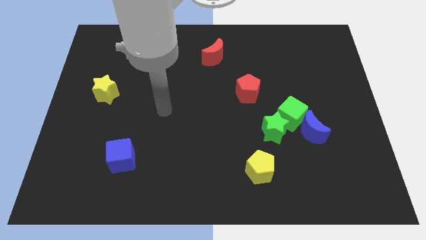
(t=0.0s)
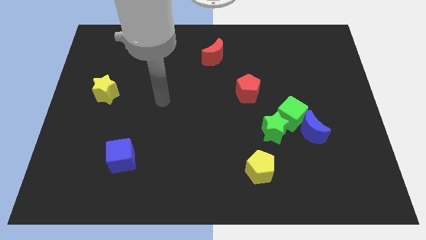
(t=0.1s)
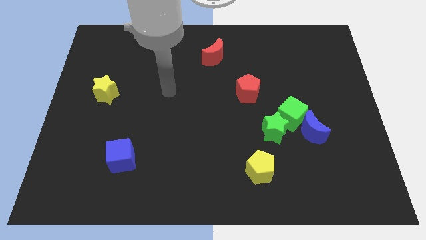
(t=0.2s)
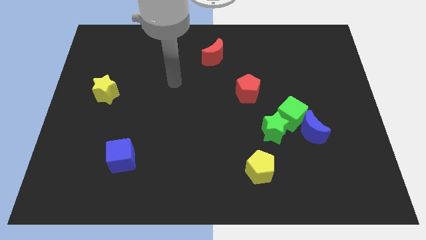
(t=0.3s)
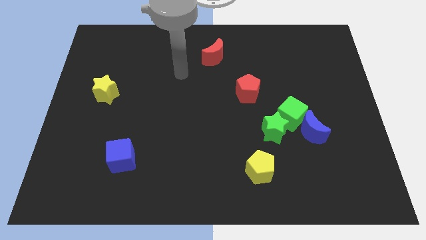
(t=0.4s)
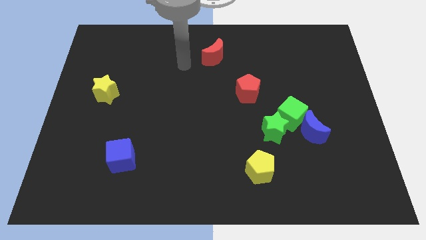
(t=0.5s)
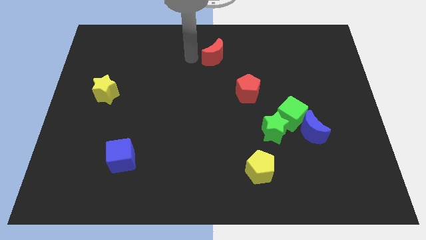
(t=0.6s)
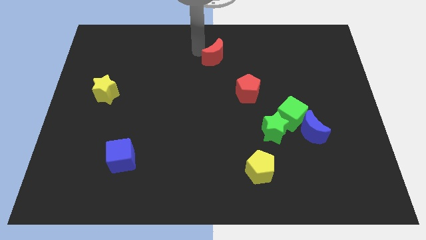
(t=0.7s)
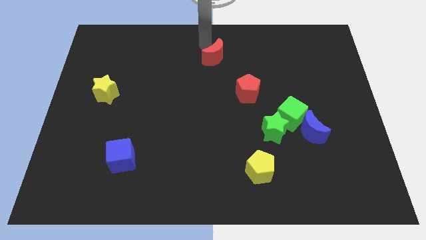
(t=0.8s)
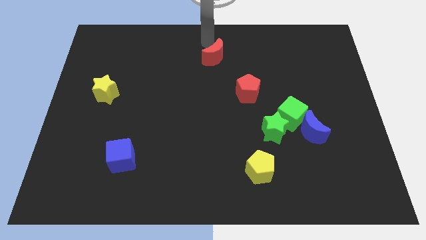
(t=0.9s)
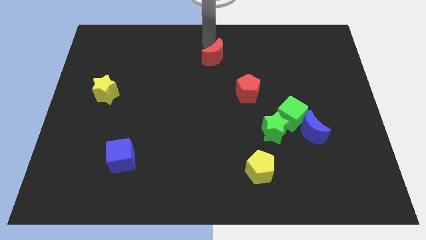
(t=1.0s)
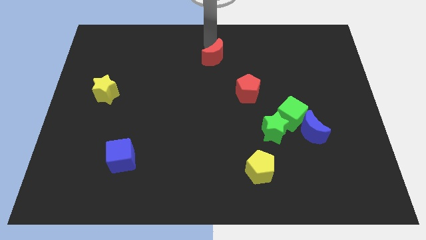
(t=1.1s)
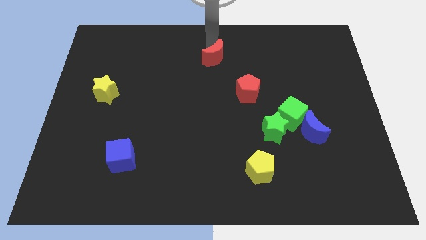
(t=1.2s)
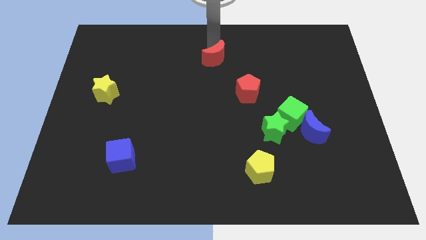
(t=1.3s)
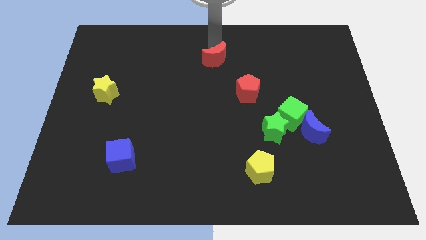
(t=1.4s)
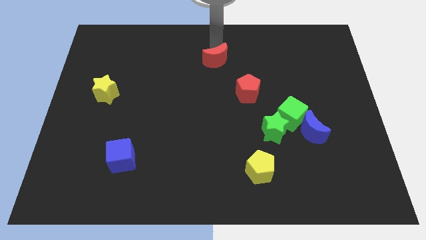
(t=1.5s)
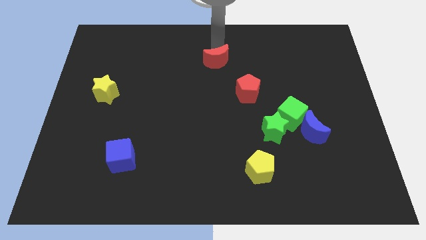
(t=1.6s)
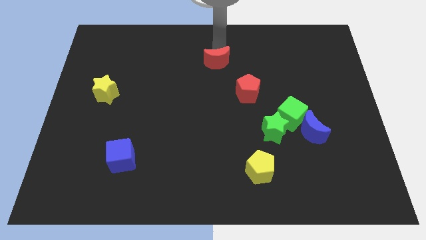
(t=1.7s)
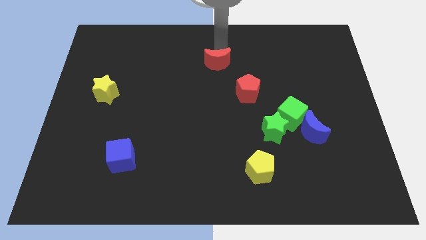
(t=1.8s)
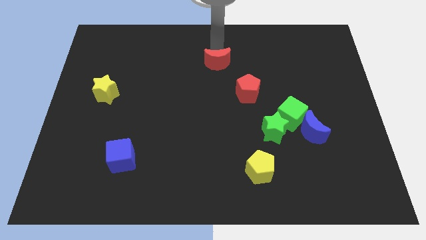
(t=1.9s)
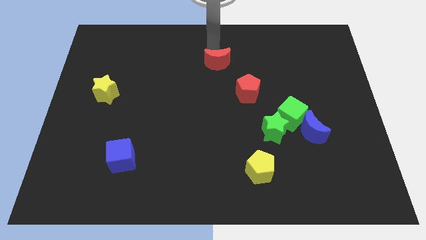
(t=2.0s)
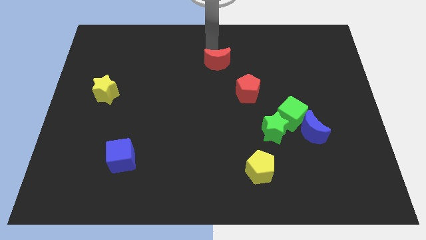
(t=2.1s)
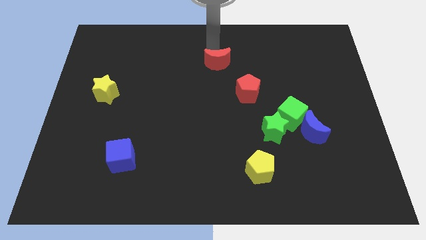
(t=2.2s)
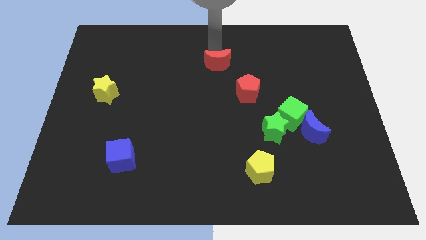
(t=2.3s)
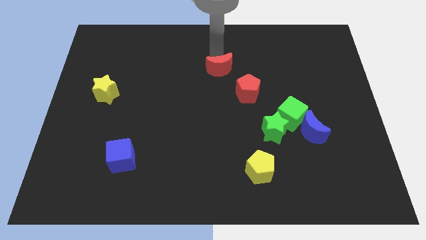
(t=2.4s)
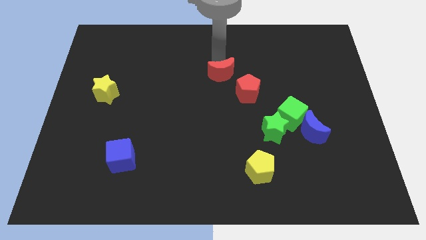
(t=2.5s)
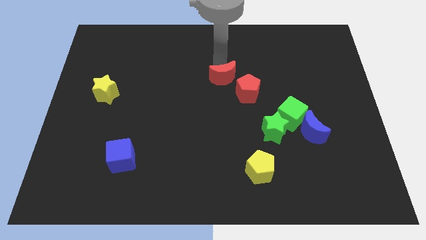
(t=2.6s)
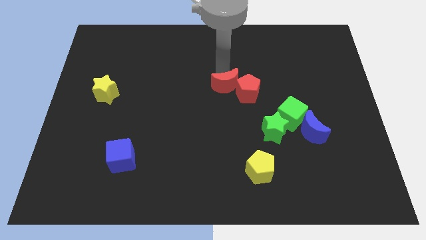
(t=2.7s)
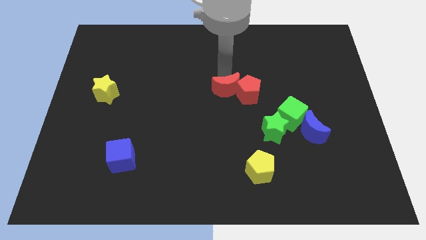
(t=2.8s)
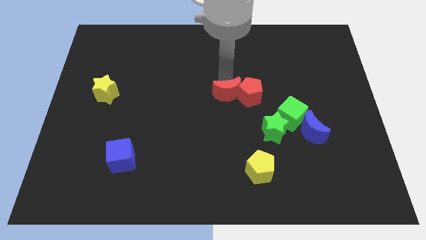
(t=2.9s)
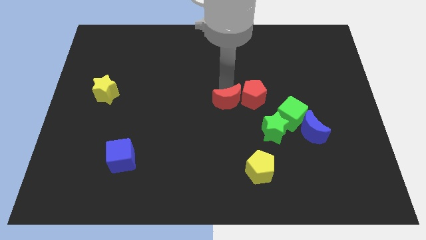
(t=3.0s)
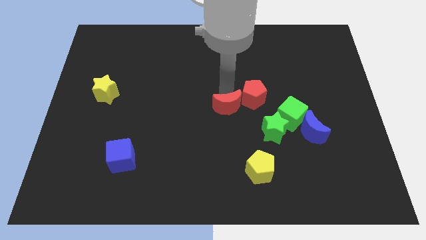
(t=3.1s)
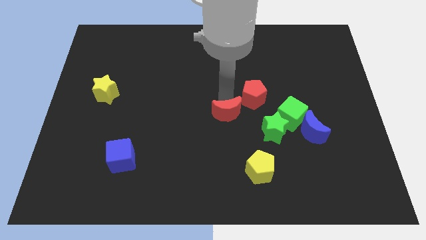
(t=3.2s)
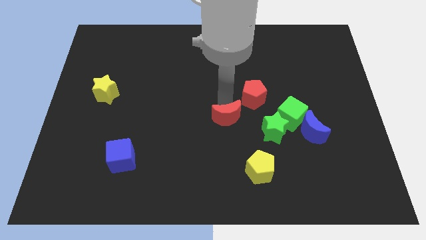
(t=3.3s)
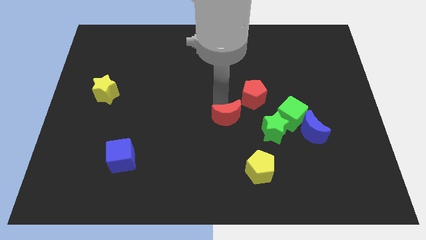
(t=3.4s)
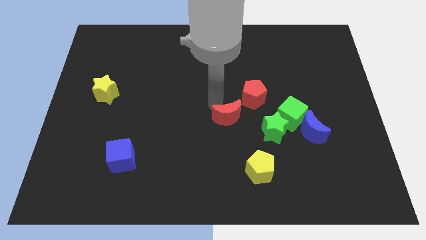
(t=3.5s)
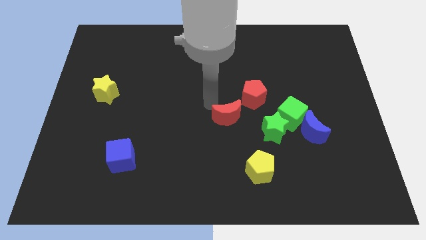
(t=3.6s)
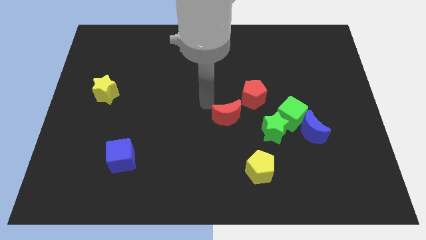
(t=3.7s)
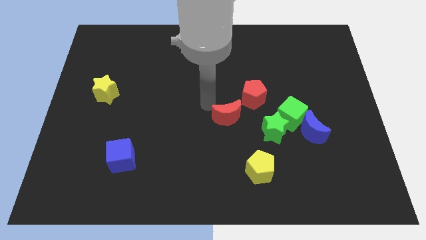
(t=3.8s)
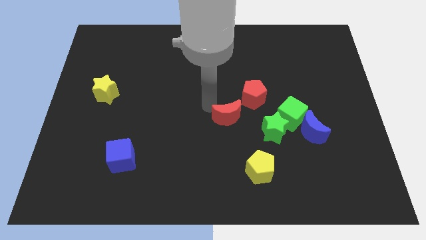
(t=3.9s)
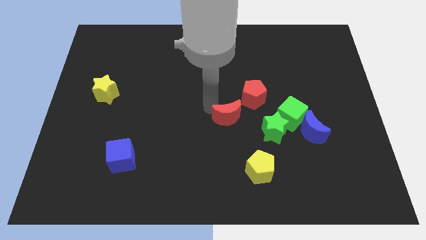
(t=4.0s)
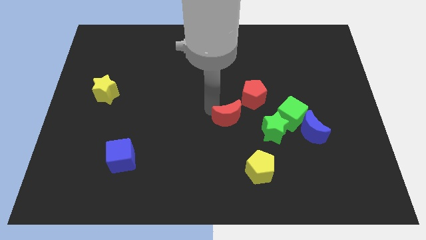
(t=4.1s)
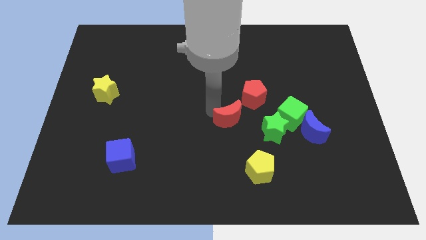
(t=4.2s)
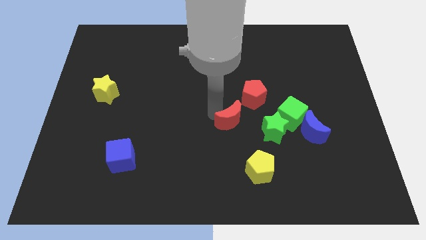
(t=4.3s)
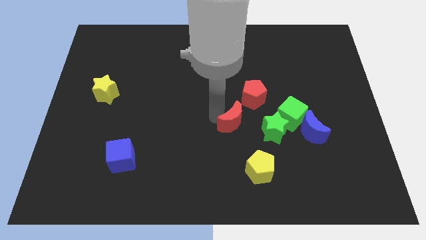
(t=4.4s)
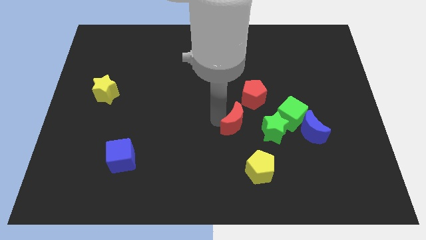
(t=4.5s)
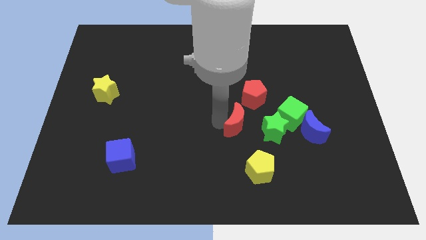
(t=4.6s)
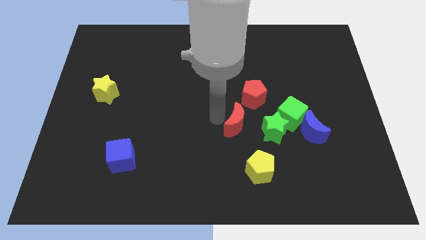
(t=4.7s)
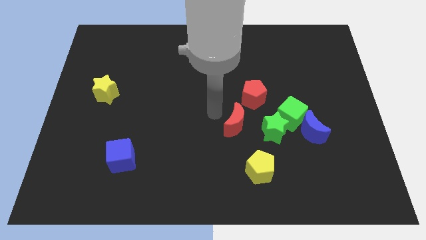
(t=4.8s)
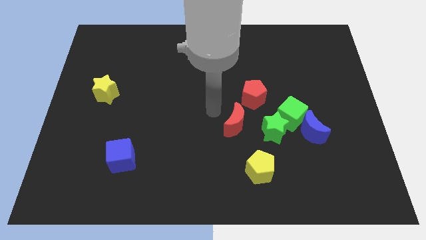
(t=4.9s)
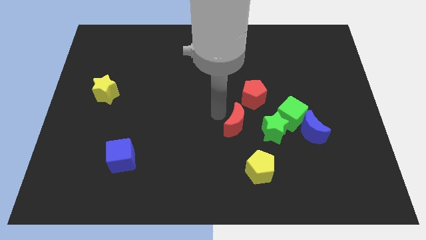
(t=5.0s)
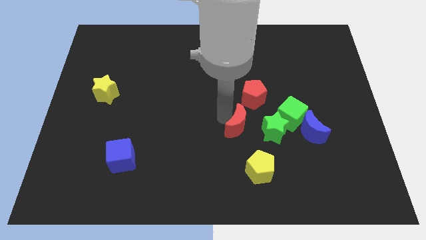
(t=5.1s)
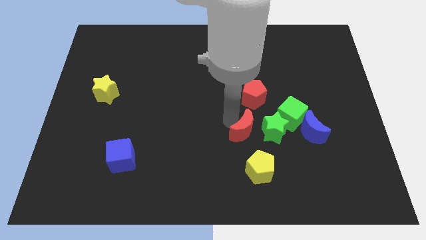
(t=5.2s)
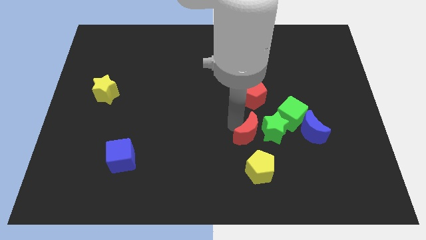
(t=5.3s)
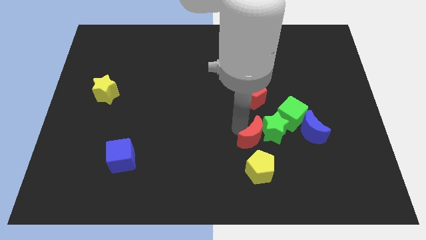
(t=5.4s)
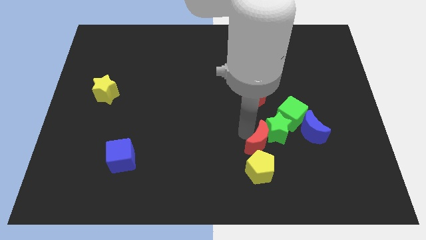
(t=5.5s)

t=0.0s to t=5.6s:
slide the red moon to the bottom side of the green star

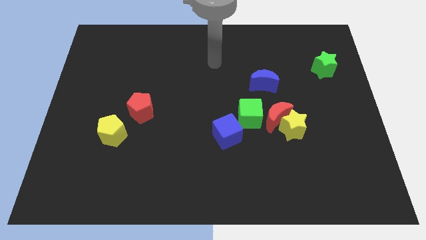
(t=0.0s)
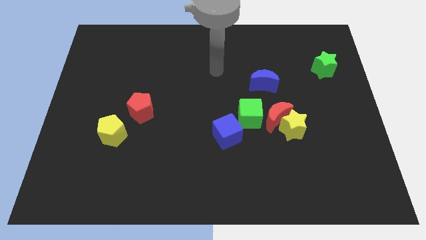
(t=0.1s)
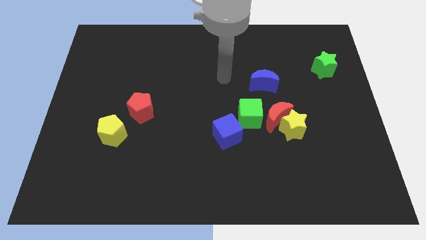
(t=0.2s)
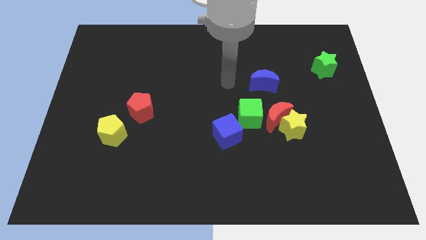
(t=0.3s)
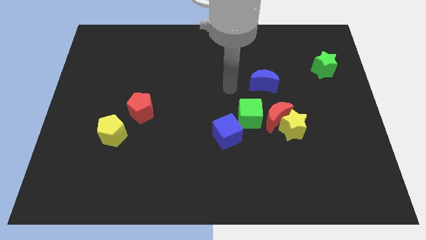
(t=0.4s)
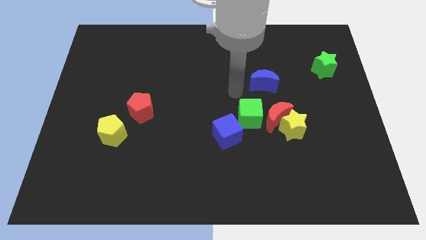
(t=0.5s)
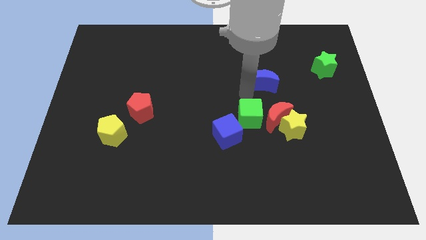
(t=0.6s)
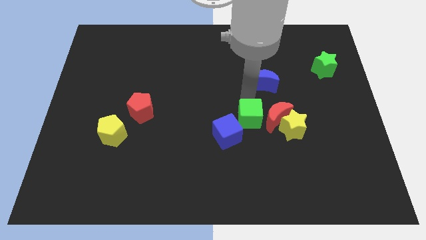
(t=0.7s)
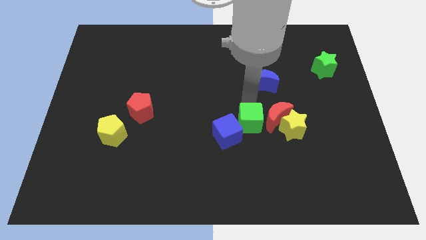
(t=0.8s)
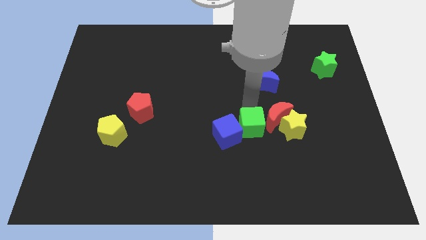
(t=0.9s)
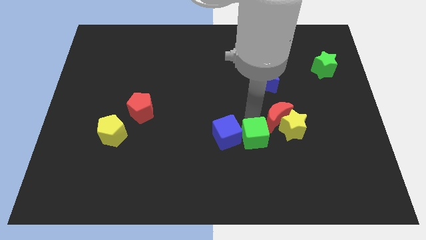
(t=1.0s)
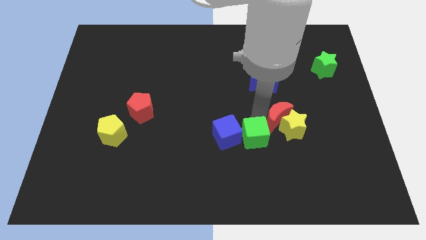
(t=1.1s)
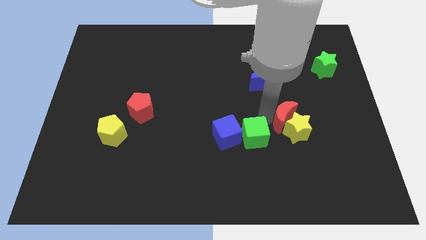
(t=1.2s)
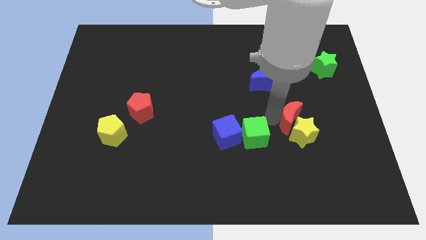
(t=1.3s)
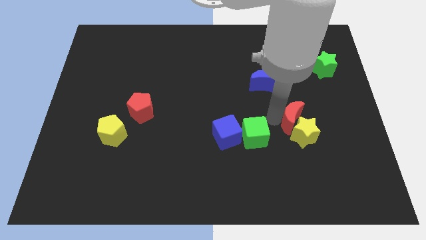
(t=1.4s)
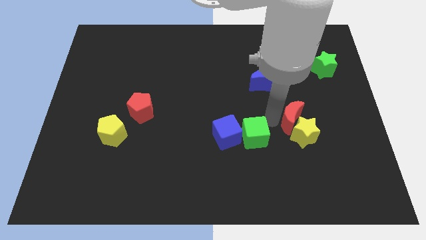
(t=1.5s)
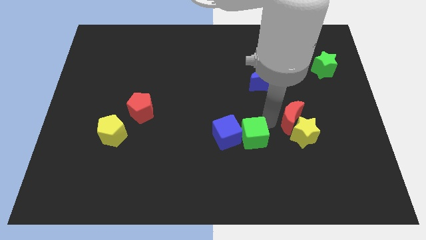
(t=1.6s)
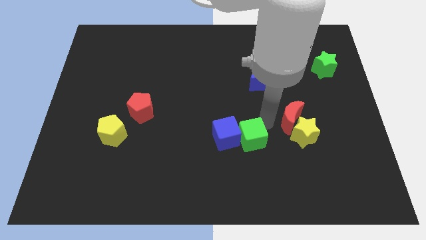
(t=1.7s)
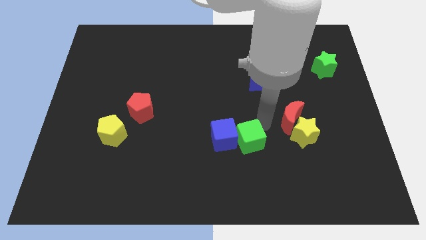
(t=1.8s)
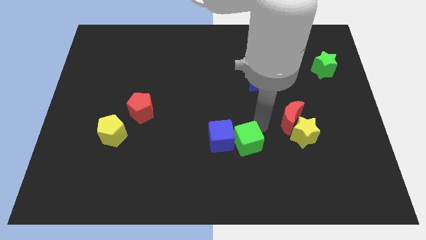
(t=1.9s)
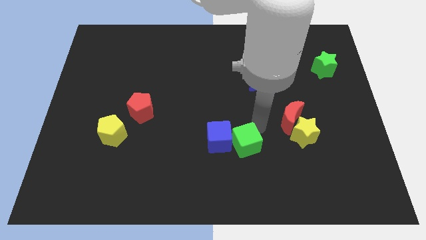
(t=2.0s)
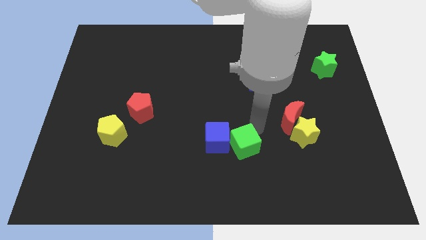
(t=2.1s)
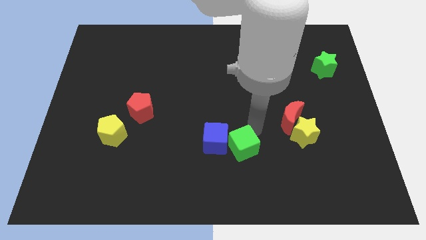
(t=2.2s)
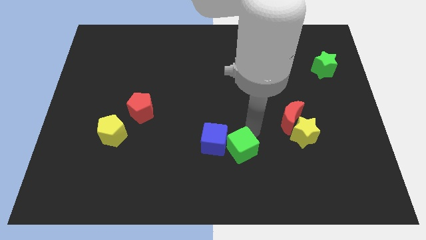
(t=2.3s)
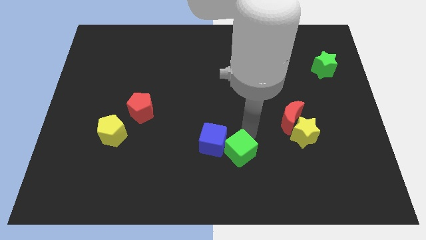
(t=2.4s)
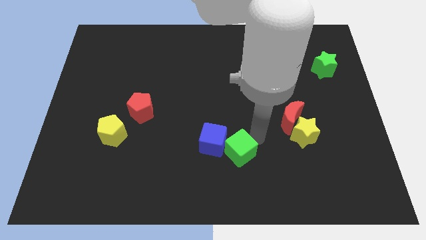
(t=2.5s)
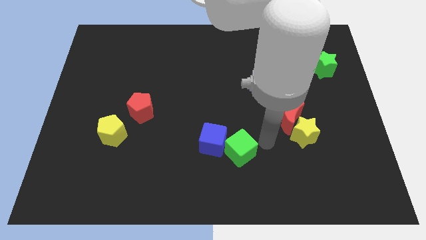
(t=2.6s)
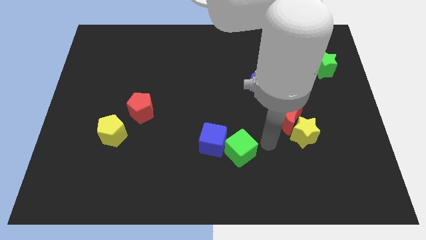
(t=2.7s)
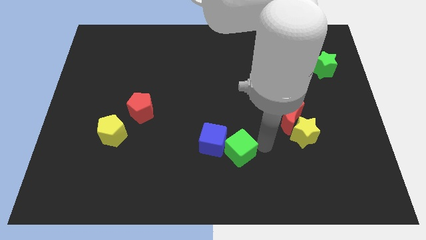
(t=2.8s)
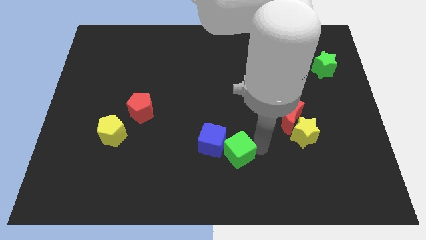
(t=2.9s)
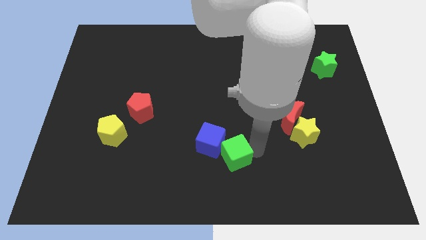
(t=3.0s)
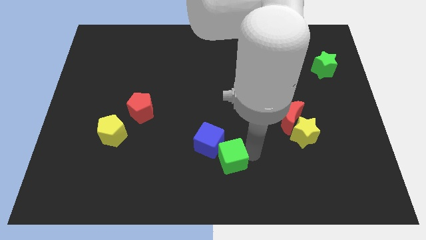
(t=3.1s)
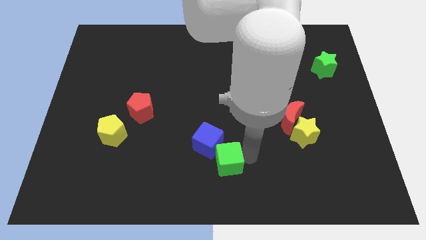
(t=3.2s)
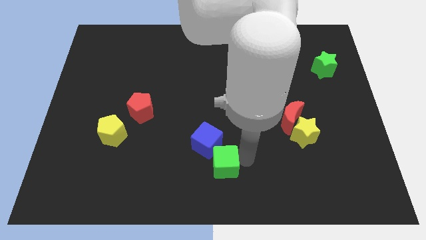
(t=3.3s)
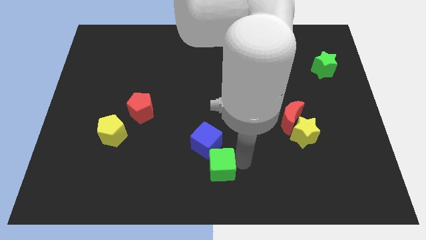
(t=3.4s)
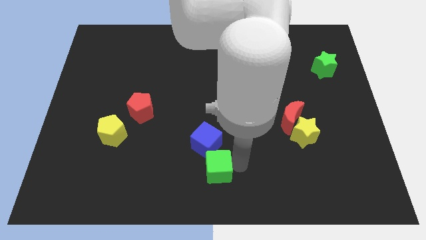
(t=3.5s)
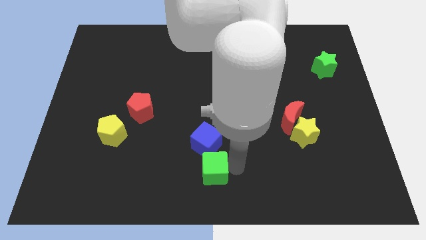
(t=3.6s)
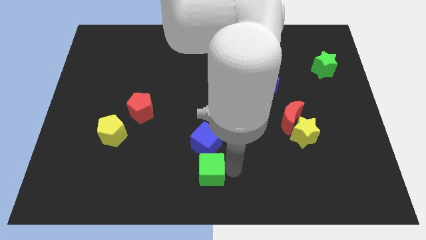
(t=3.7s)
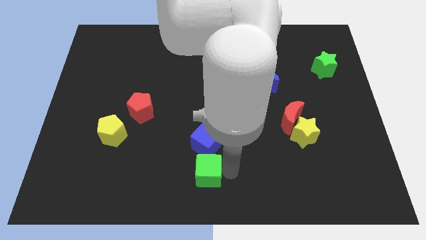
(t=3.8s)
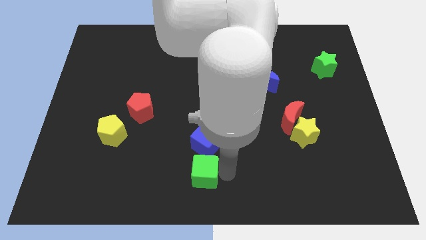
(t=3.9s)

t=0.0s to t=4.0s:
slide the green cube to the bottom left of the blue cube
